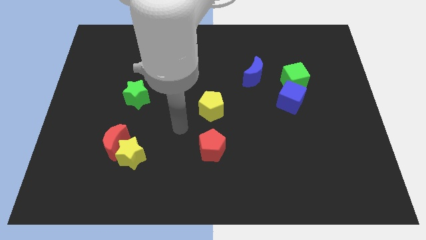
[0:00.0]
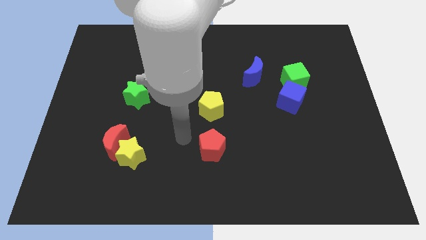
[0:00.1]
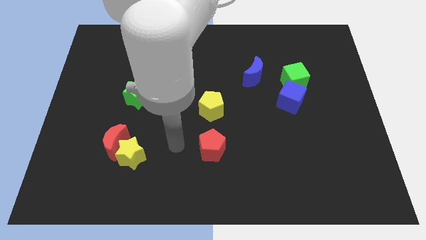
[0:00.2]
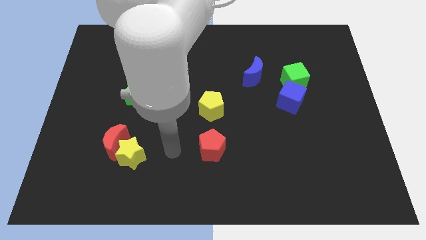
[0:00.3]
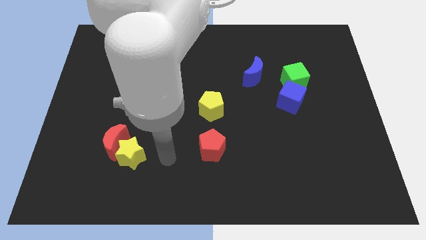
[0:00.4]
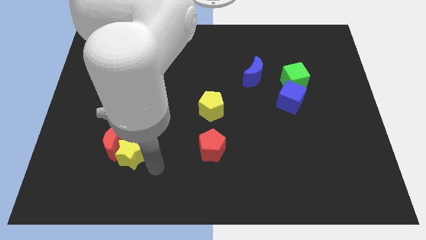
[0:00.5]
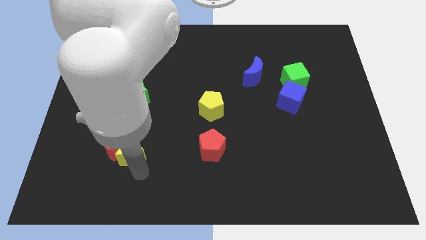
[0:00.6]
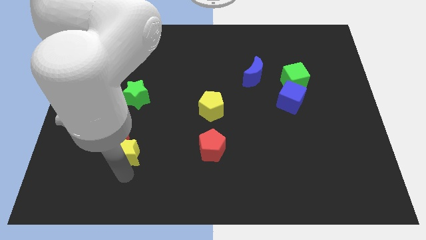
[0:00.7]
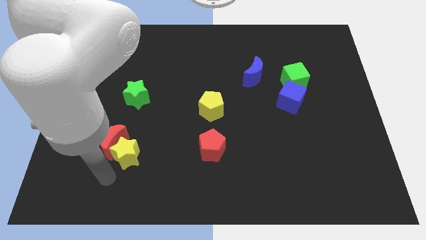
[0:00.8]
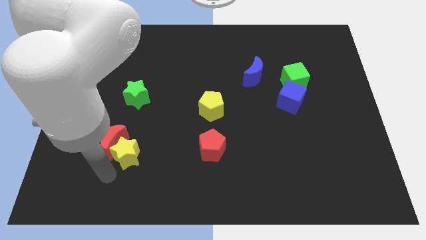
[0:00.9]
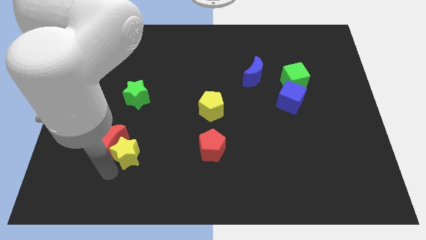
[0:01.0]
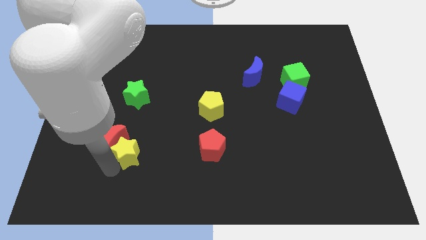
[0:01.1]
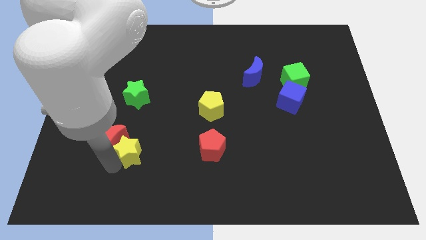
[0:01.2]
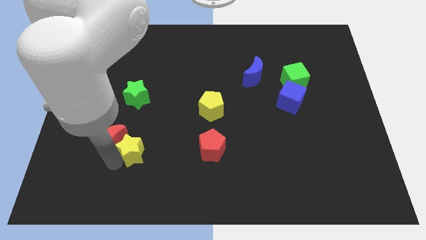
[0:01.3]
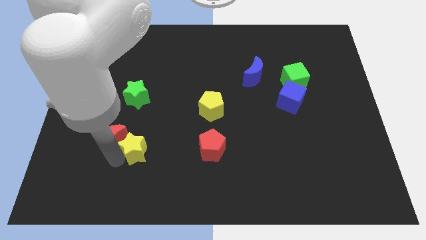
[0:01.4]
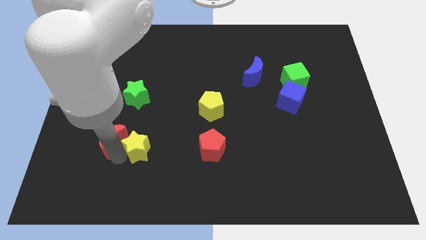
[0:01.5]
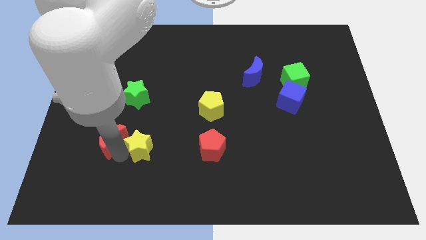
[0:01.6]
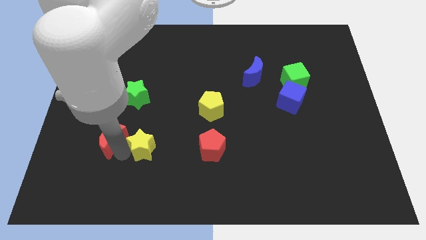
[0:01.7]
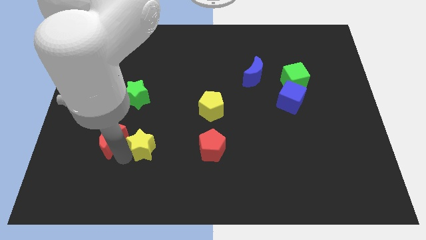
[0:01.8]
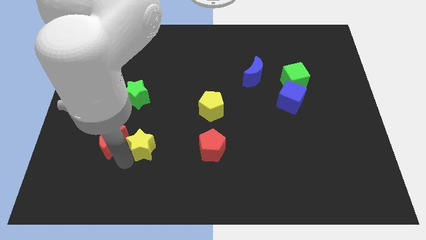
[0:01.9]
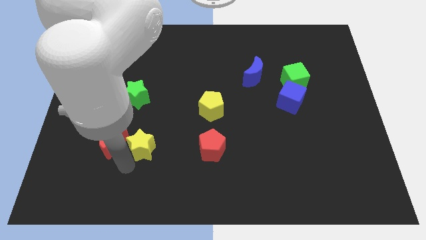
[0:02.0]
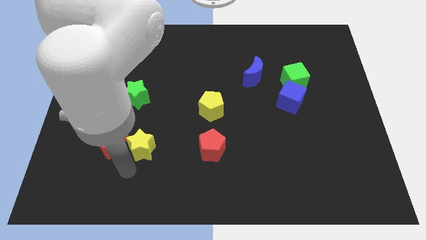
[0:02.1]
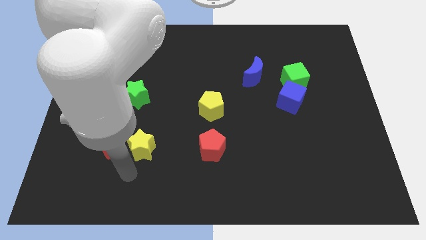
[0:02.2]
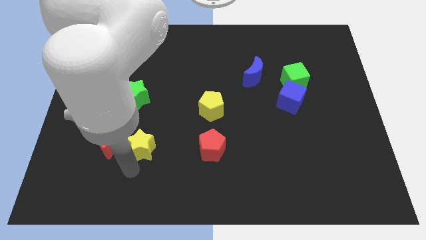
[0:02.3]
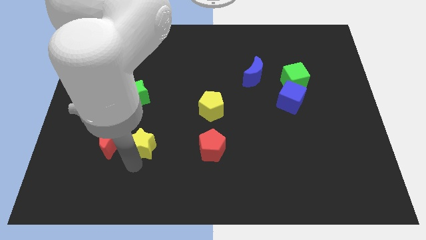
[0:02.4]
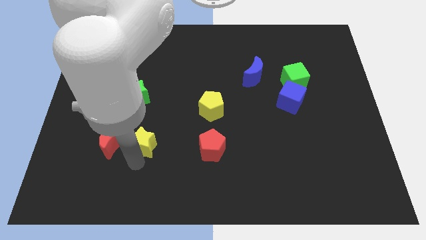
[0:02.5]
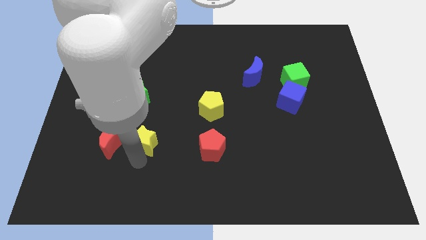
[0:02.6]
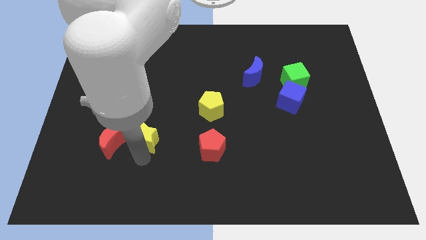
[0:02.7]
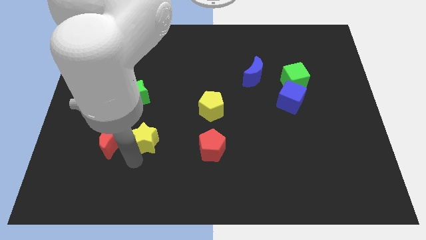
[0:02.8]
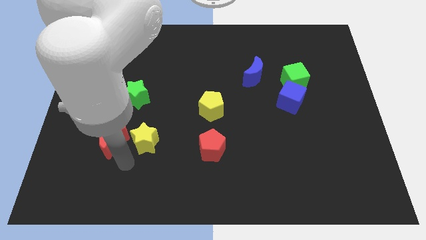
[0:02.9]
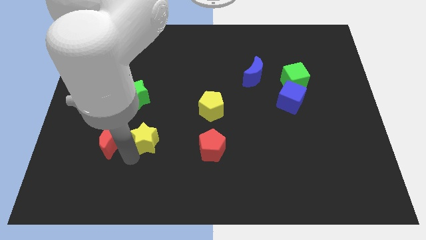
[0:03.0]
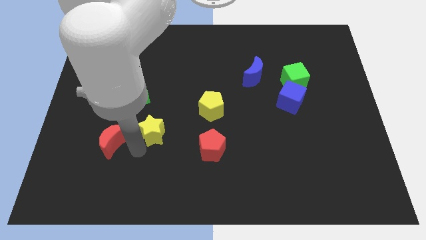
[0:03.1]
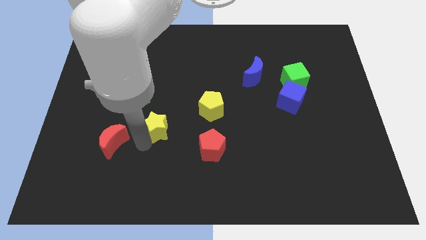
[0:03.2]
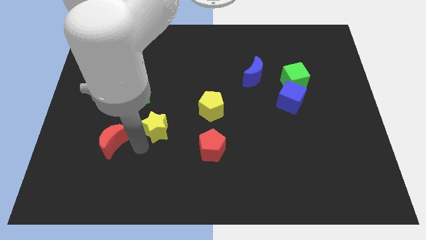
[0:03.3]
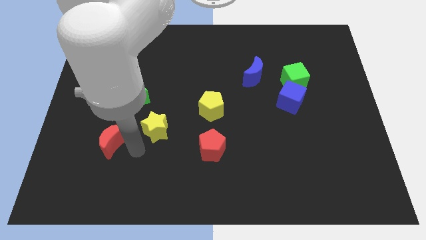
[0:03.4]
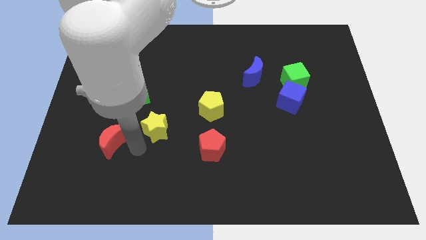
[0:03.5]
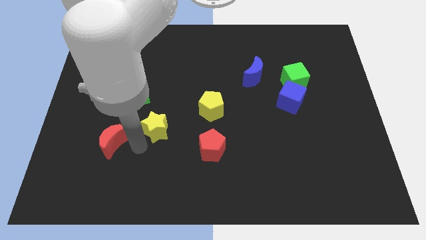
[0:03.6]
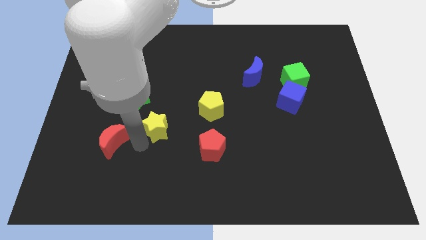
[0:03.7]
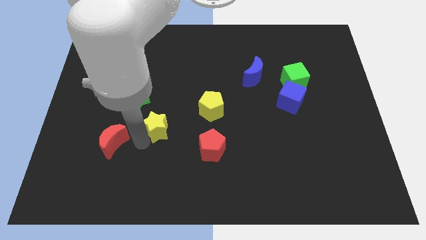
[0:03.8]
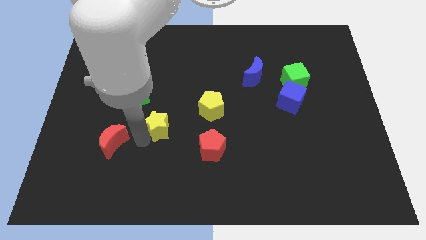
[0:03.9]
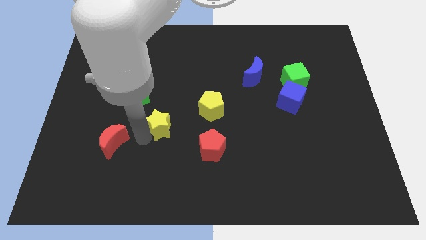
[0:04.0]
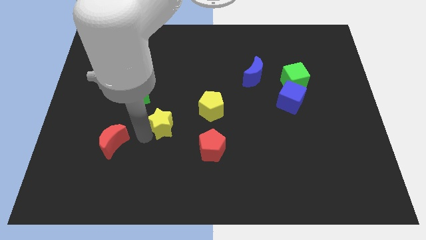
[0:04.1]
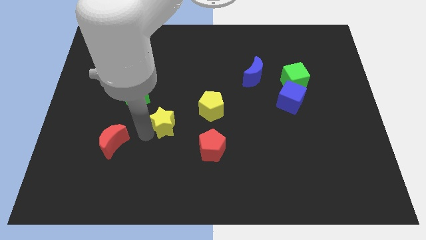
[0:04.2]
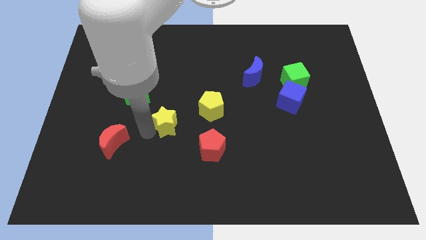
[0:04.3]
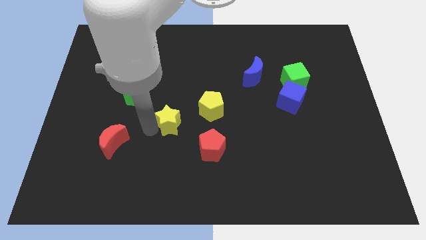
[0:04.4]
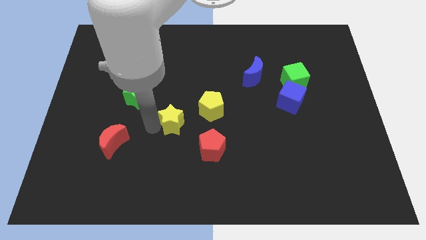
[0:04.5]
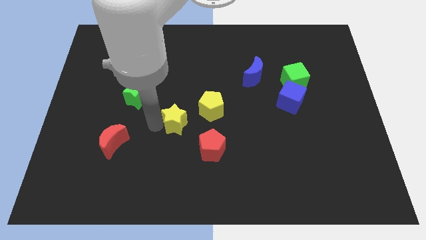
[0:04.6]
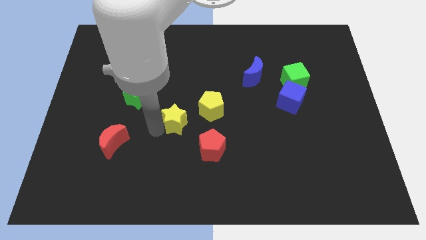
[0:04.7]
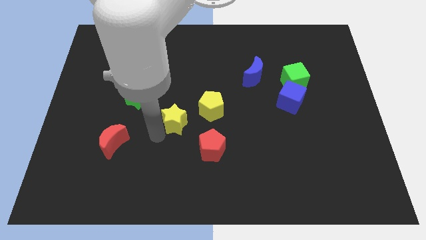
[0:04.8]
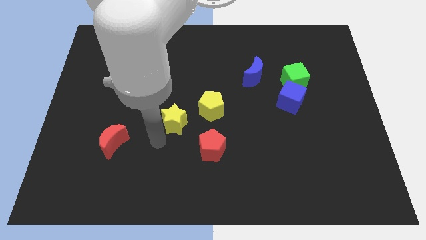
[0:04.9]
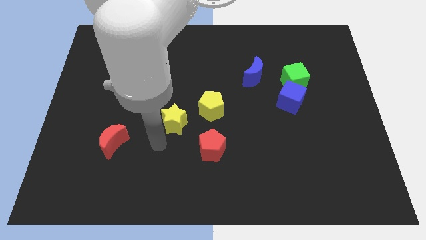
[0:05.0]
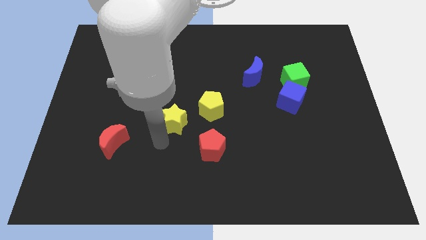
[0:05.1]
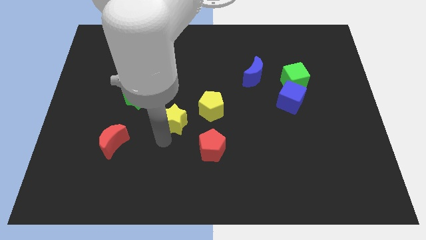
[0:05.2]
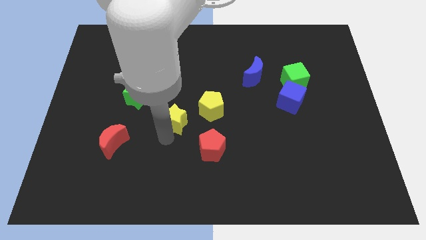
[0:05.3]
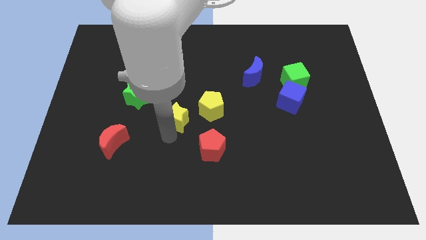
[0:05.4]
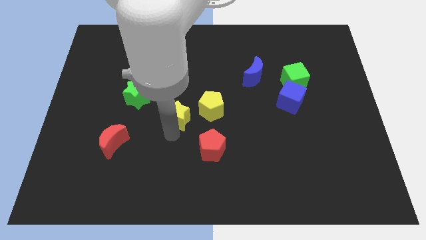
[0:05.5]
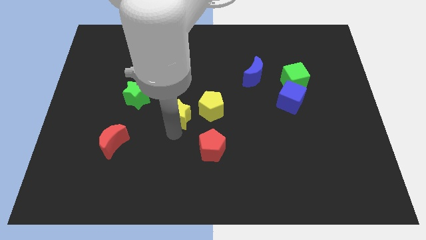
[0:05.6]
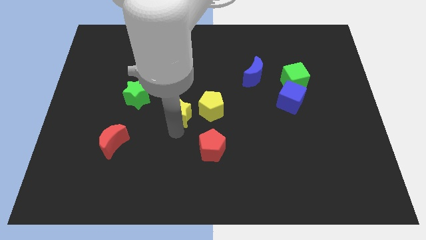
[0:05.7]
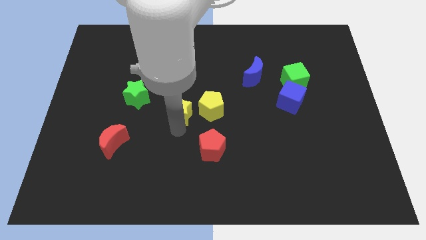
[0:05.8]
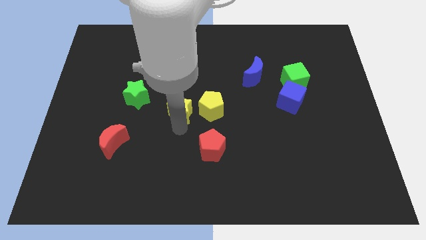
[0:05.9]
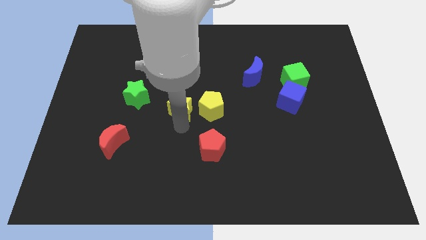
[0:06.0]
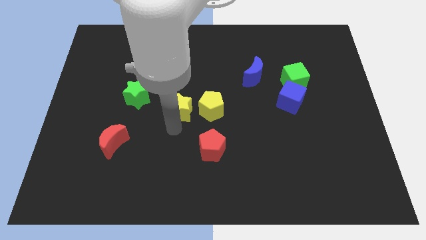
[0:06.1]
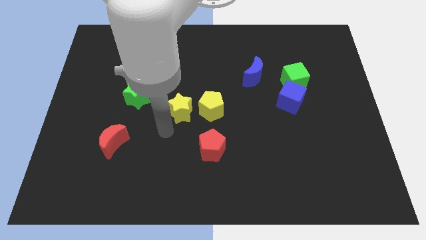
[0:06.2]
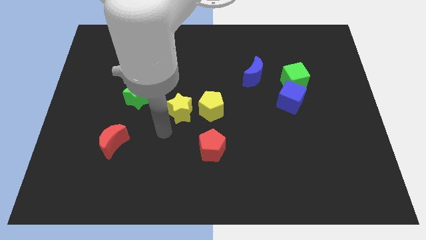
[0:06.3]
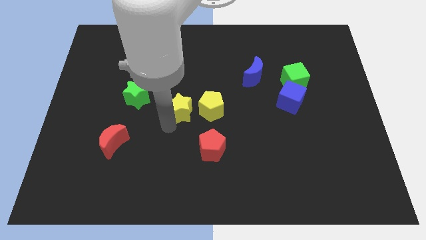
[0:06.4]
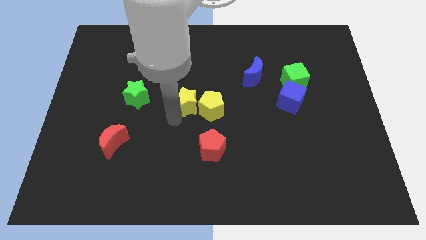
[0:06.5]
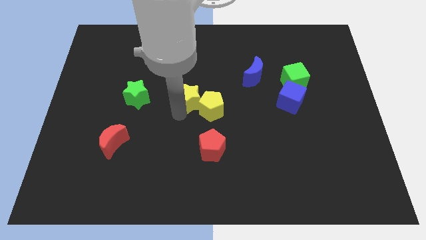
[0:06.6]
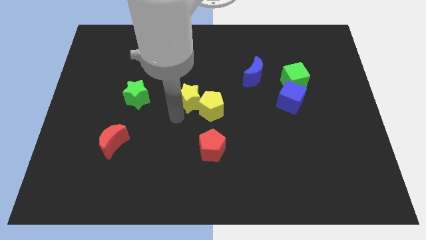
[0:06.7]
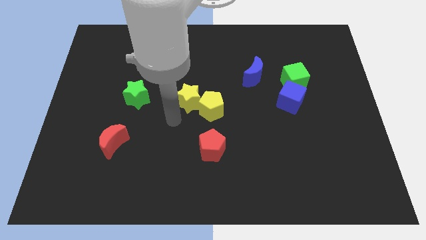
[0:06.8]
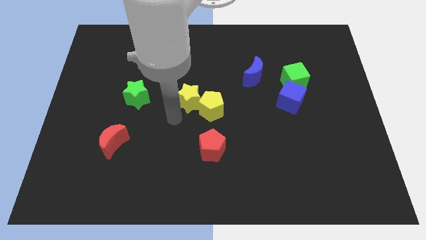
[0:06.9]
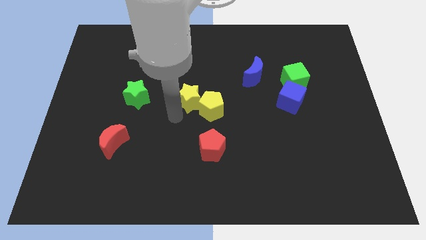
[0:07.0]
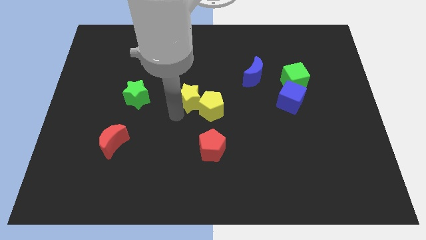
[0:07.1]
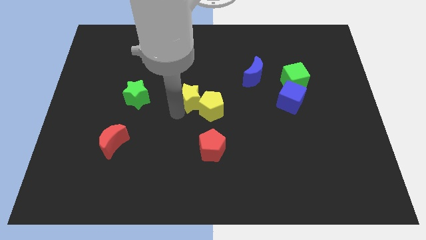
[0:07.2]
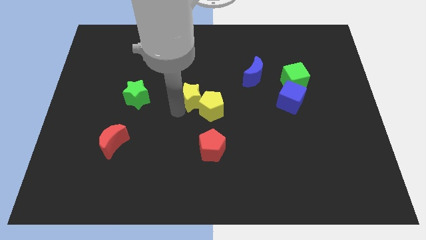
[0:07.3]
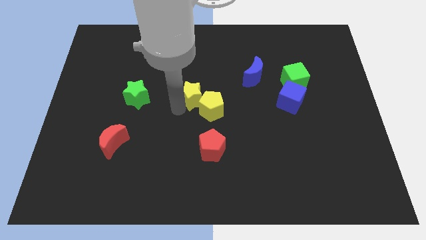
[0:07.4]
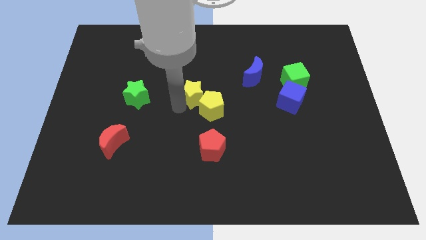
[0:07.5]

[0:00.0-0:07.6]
push the yellow star diagonally up and to the right

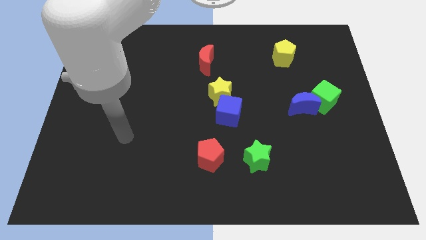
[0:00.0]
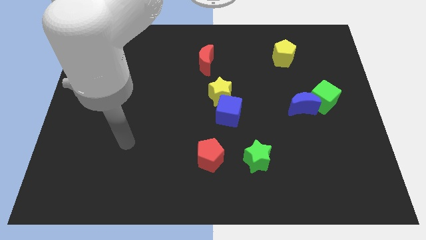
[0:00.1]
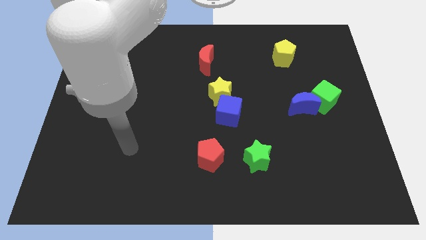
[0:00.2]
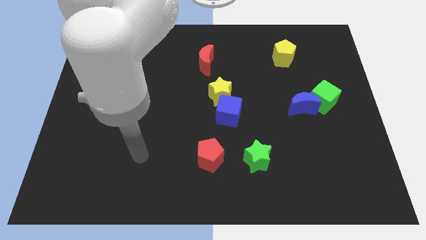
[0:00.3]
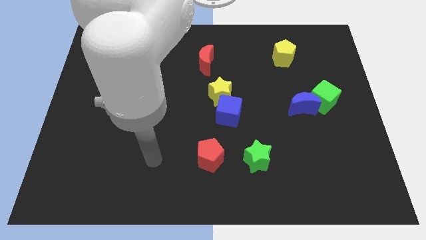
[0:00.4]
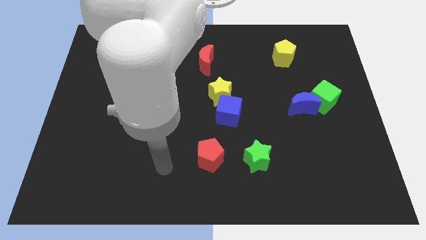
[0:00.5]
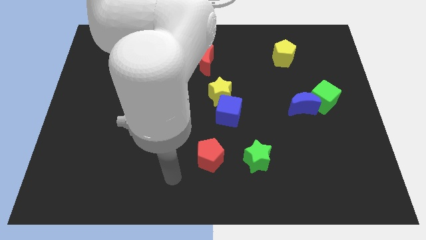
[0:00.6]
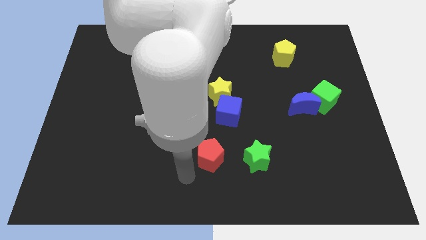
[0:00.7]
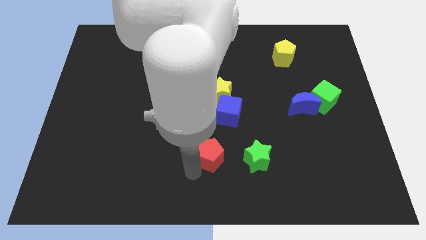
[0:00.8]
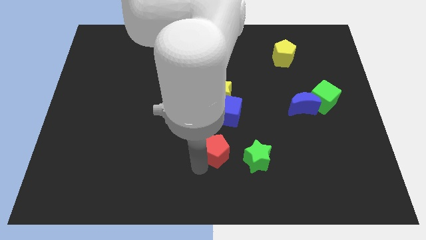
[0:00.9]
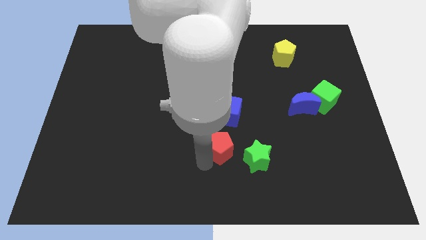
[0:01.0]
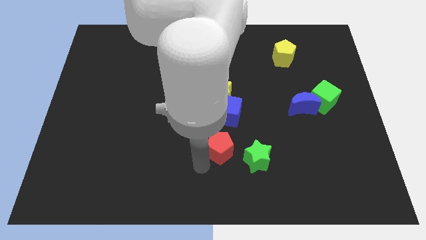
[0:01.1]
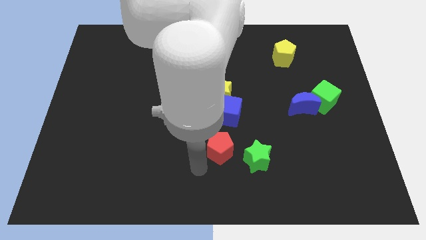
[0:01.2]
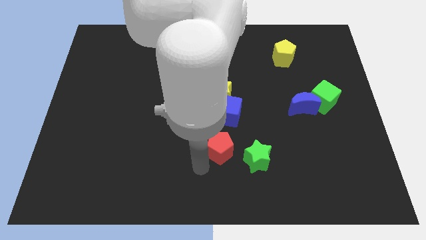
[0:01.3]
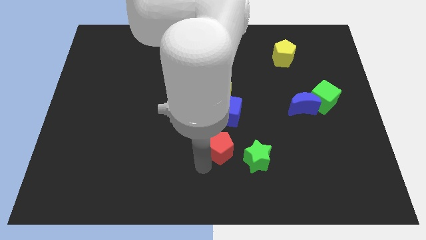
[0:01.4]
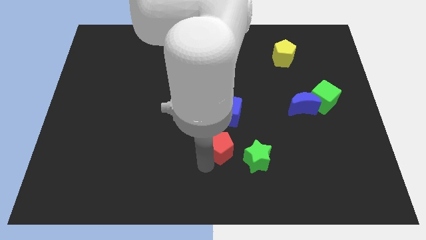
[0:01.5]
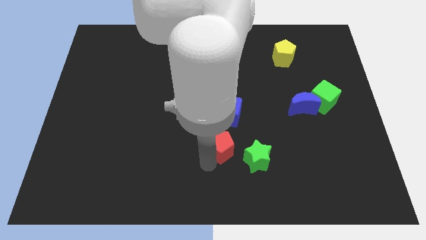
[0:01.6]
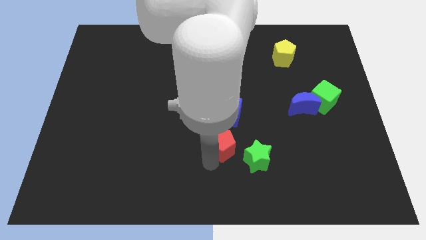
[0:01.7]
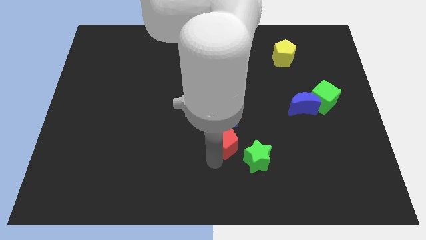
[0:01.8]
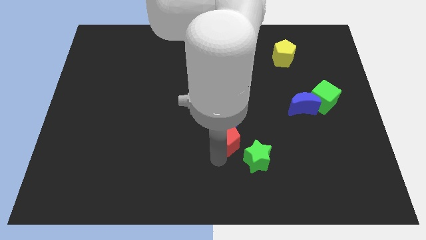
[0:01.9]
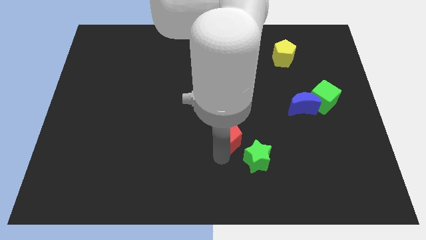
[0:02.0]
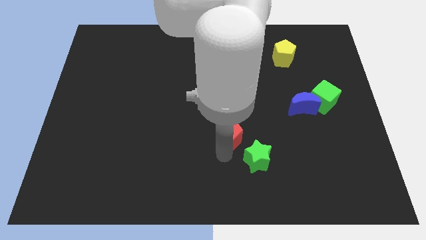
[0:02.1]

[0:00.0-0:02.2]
slide the red pentagon diagonally up and to the right somewhat
